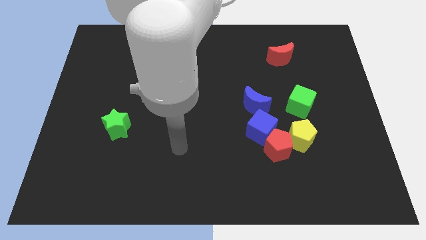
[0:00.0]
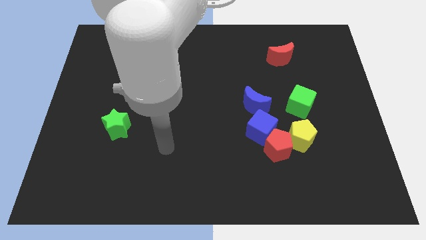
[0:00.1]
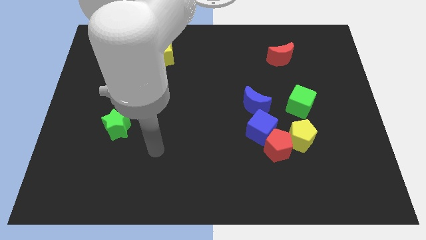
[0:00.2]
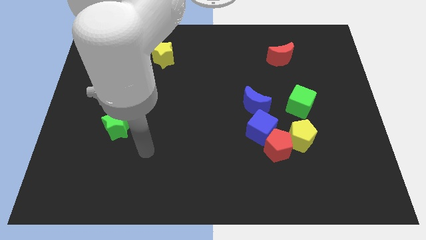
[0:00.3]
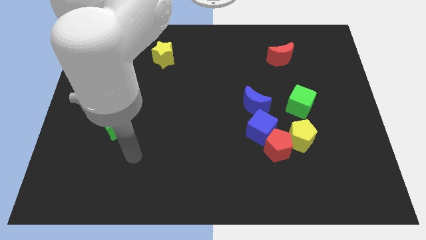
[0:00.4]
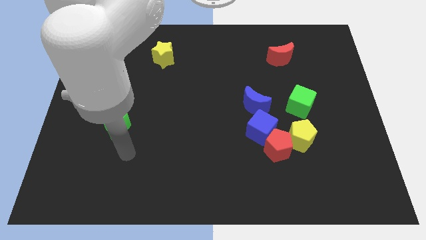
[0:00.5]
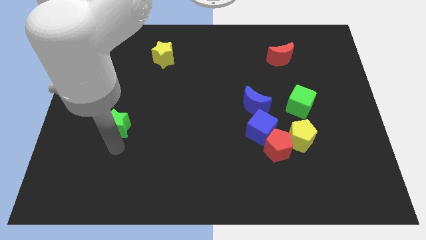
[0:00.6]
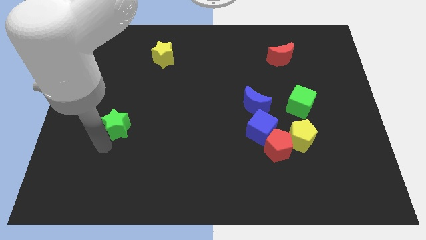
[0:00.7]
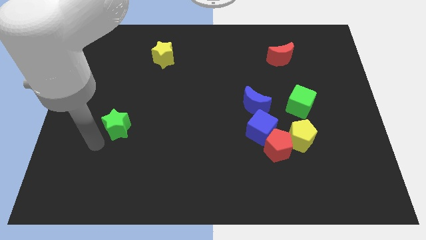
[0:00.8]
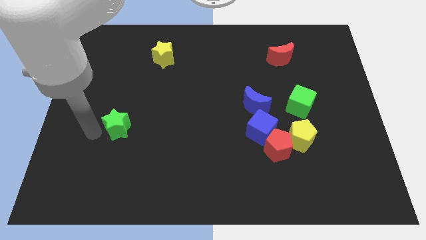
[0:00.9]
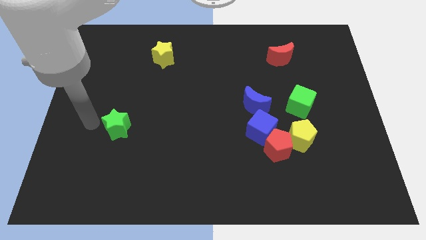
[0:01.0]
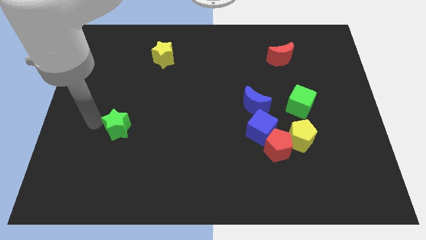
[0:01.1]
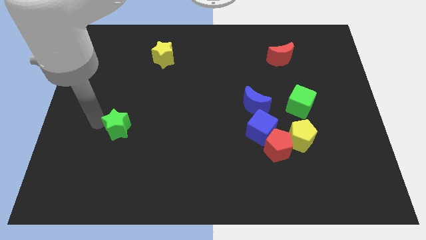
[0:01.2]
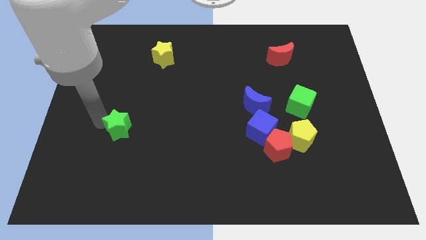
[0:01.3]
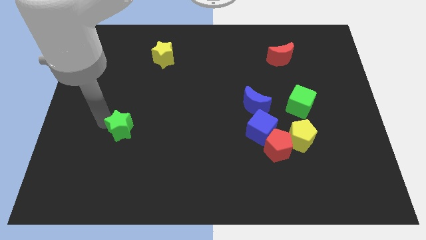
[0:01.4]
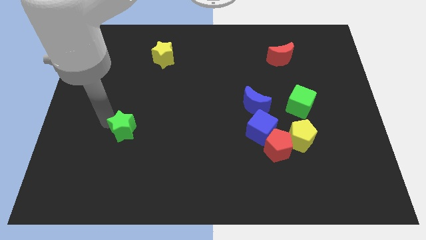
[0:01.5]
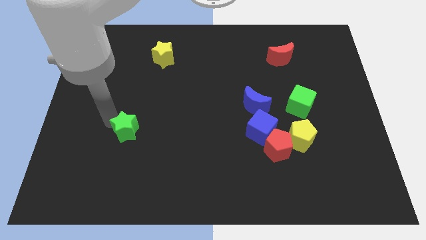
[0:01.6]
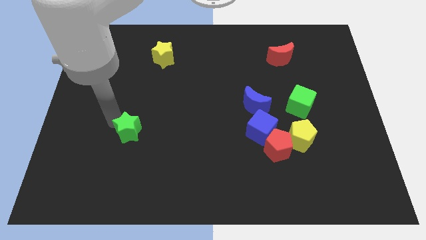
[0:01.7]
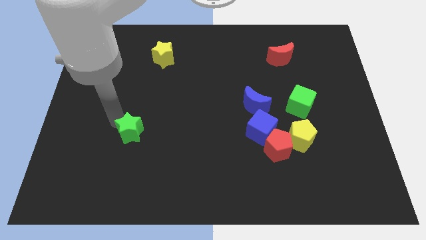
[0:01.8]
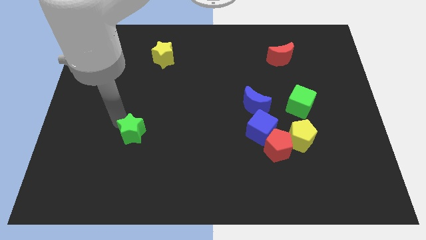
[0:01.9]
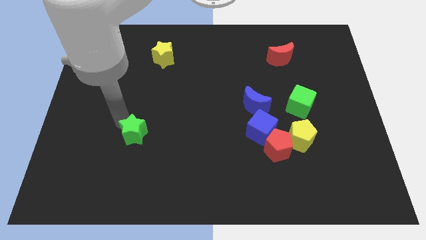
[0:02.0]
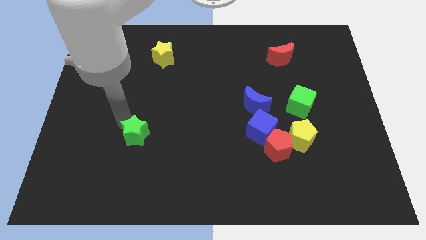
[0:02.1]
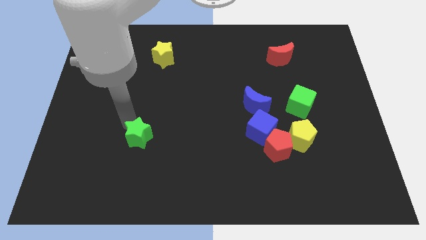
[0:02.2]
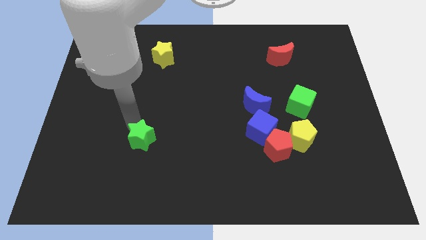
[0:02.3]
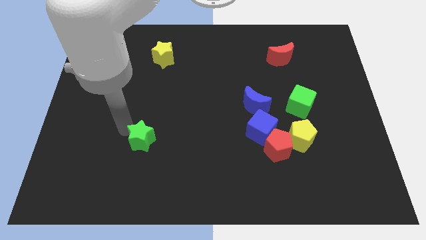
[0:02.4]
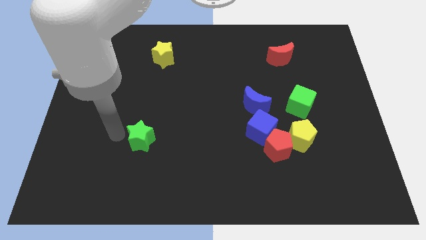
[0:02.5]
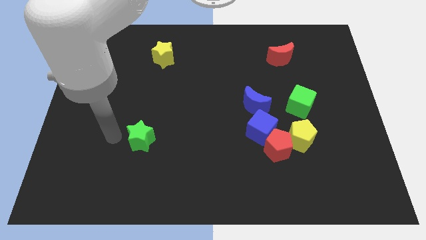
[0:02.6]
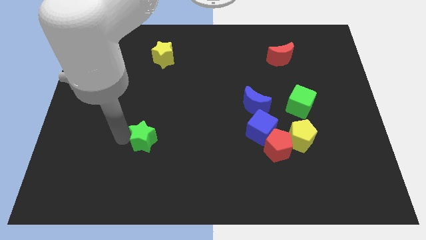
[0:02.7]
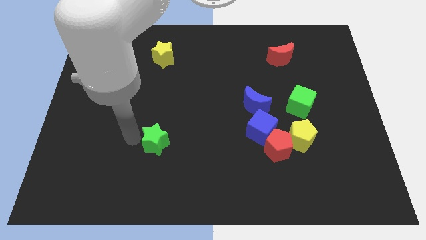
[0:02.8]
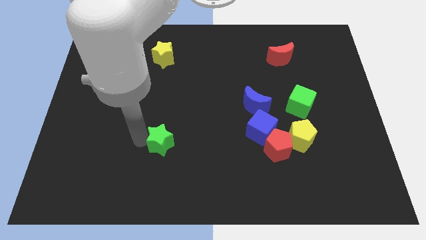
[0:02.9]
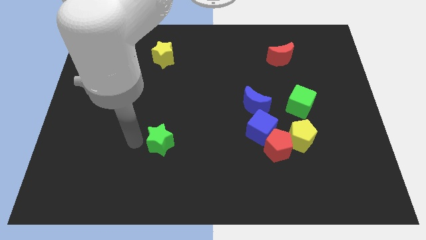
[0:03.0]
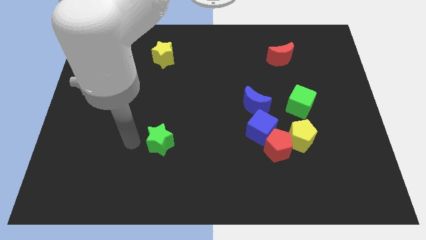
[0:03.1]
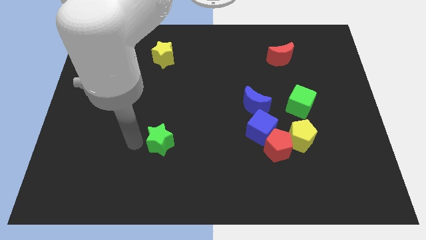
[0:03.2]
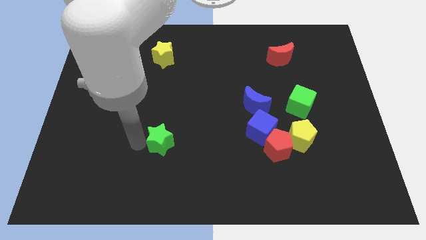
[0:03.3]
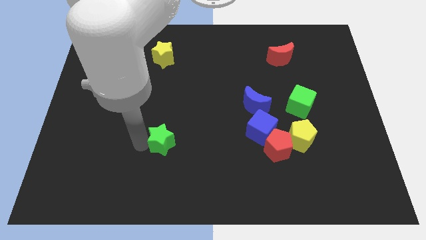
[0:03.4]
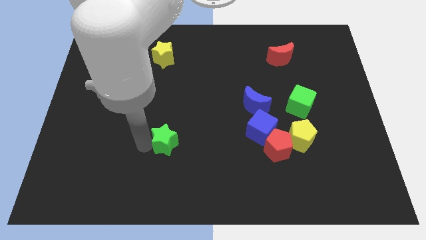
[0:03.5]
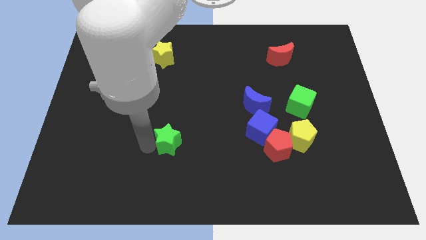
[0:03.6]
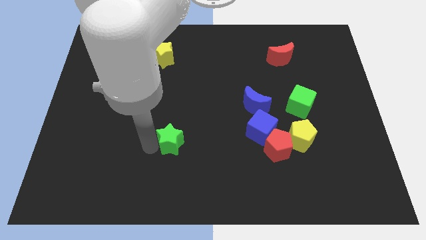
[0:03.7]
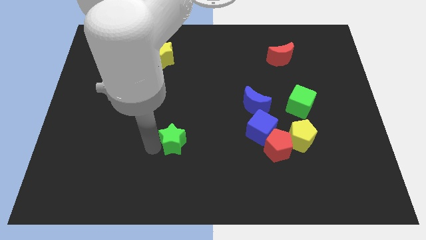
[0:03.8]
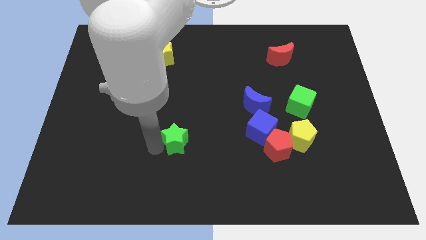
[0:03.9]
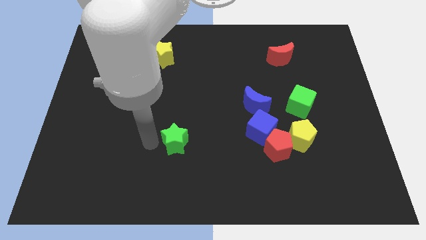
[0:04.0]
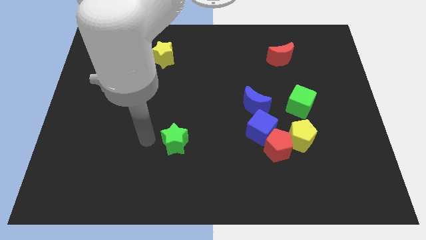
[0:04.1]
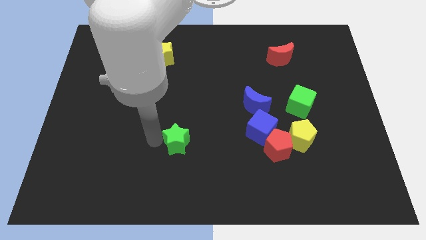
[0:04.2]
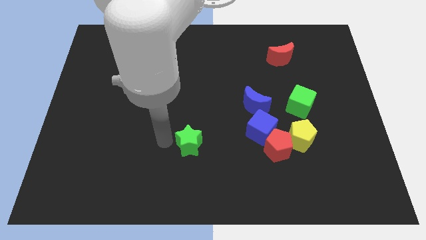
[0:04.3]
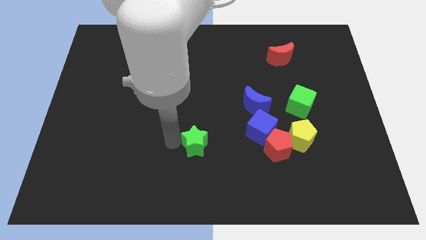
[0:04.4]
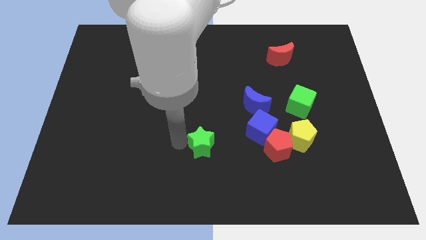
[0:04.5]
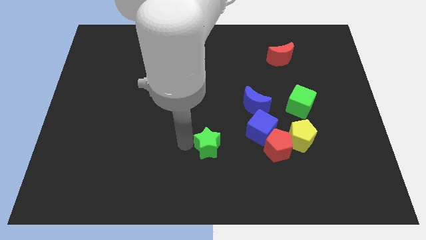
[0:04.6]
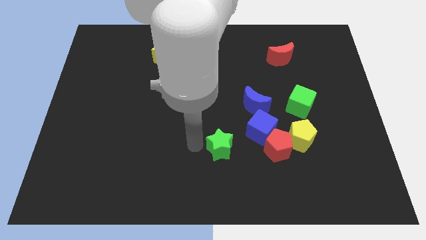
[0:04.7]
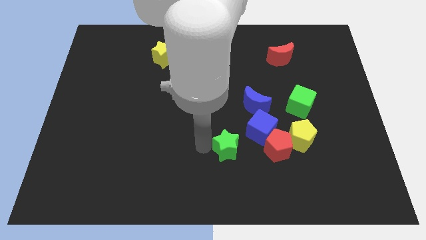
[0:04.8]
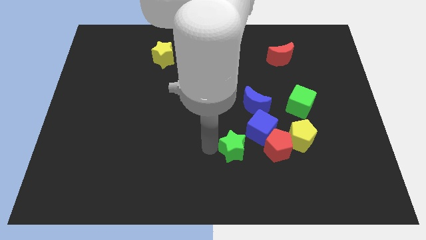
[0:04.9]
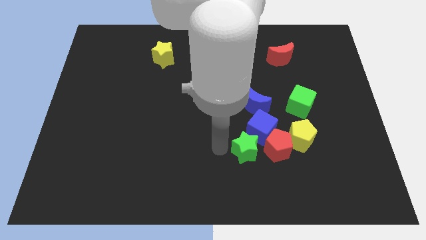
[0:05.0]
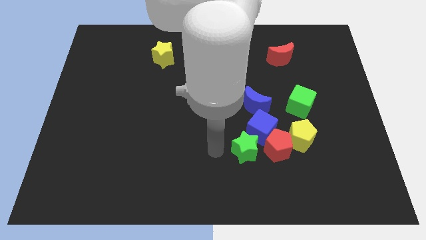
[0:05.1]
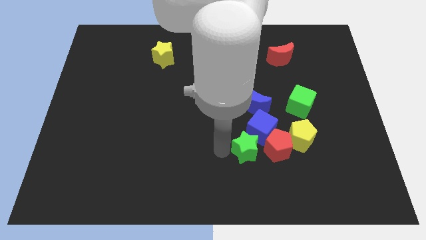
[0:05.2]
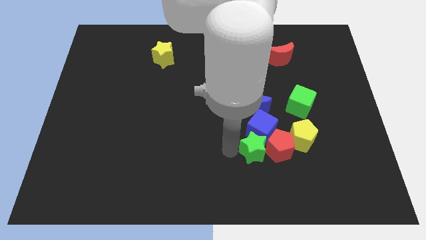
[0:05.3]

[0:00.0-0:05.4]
slide the green star towards the red pentagon

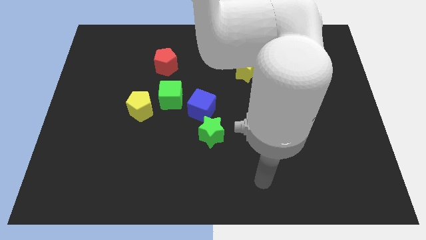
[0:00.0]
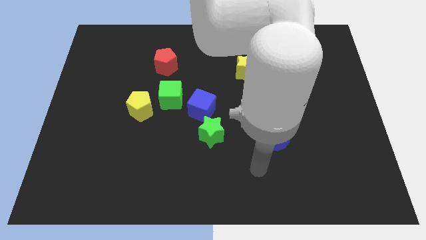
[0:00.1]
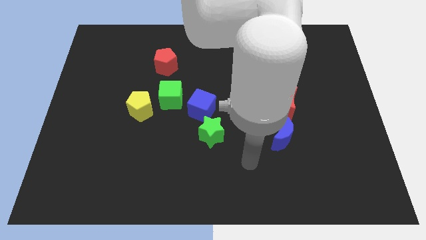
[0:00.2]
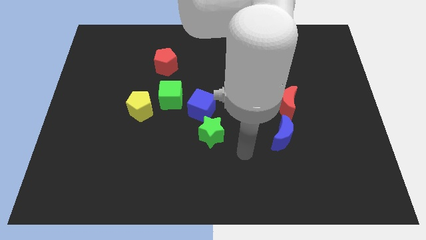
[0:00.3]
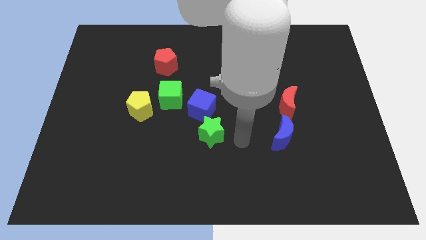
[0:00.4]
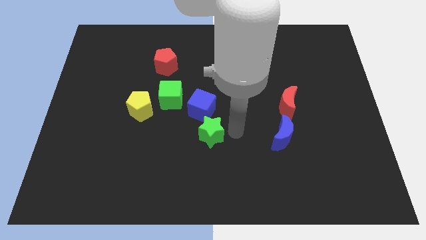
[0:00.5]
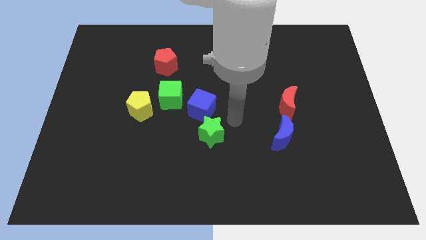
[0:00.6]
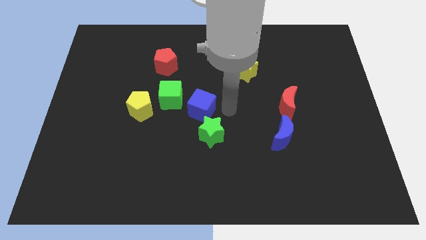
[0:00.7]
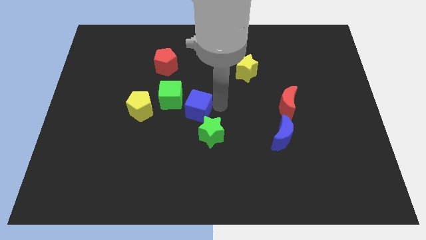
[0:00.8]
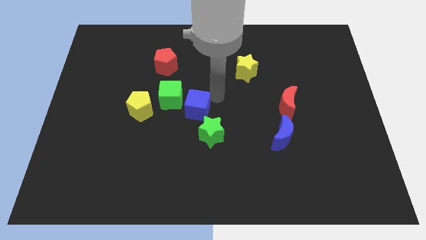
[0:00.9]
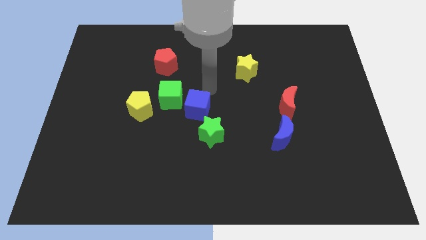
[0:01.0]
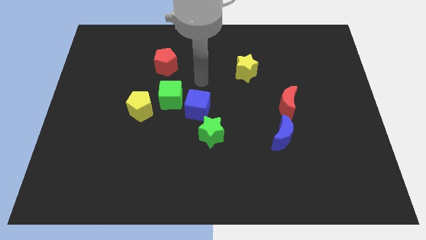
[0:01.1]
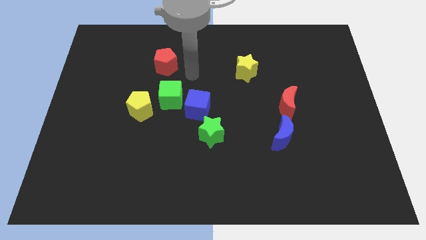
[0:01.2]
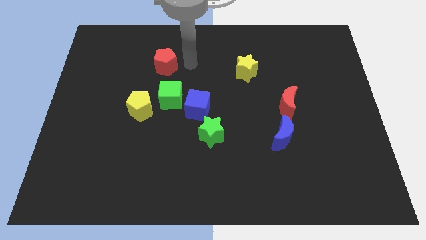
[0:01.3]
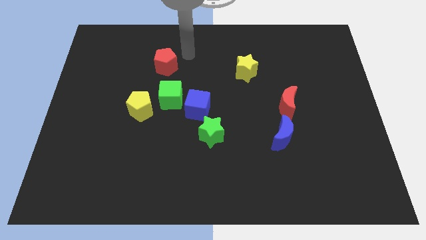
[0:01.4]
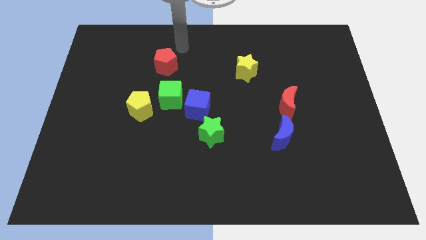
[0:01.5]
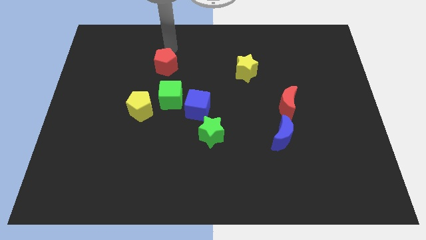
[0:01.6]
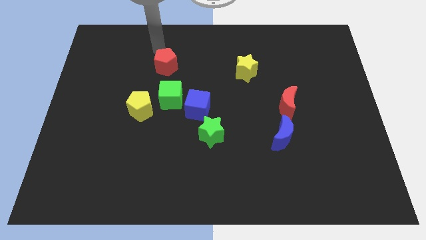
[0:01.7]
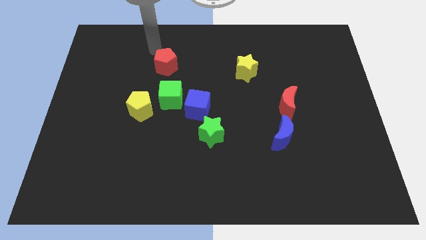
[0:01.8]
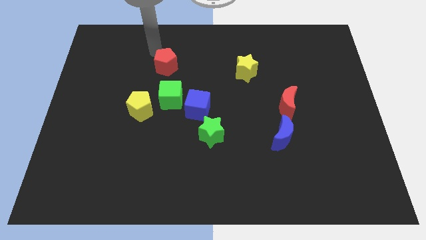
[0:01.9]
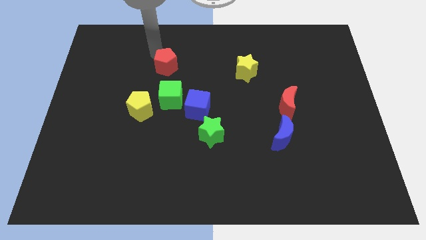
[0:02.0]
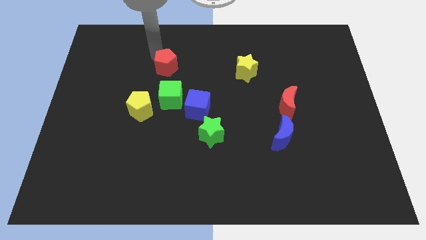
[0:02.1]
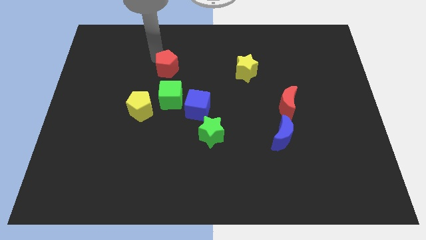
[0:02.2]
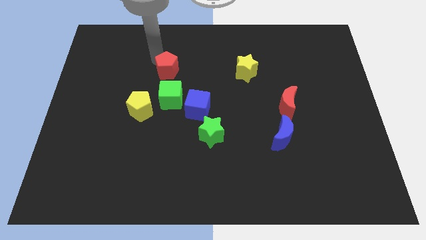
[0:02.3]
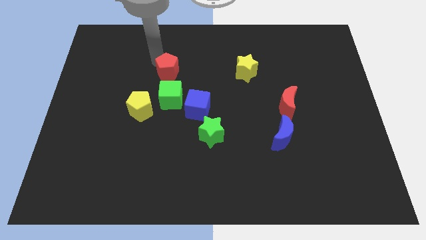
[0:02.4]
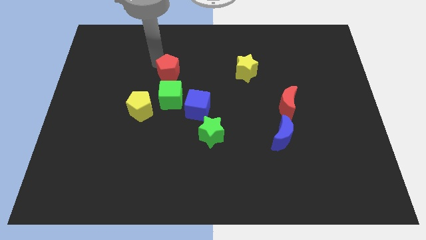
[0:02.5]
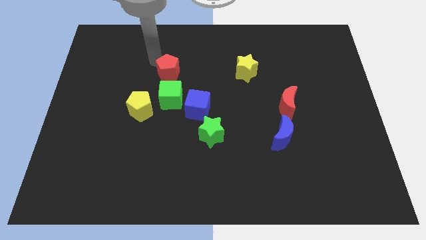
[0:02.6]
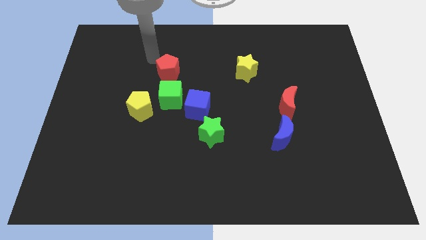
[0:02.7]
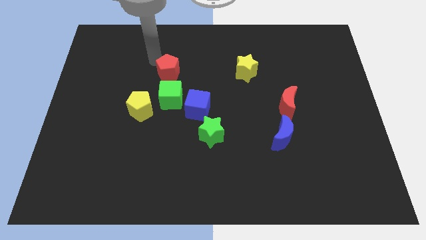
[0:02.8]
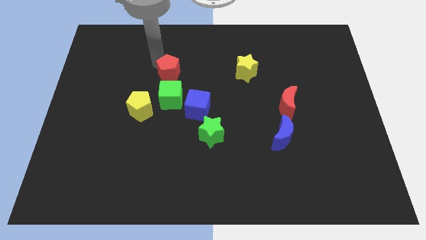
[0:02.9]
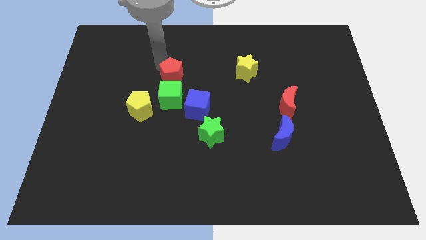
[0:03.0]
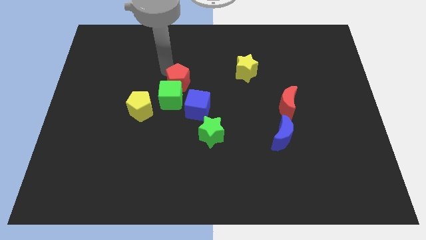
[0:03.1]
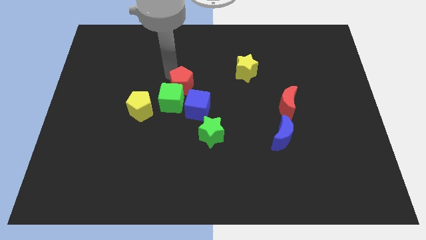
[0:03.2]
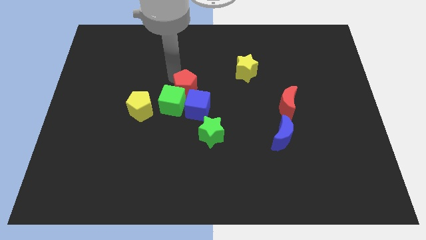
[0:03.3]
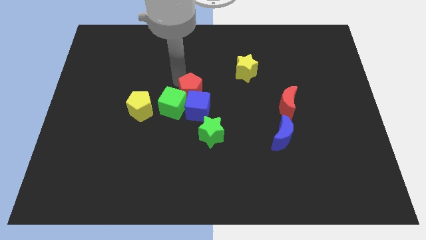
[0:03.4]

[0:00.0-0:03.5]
push the red pentagon towards the blue cube
